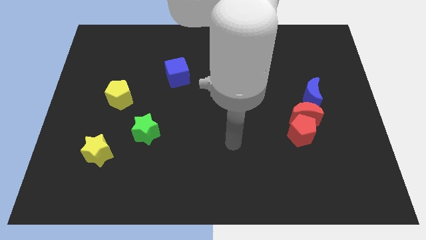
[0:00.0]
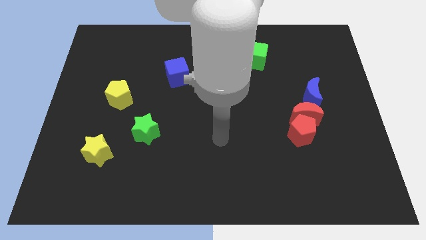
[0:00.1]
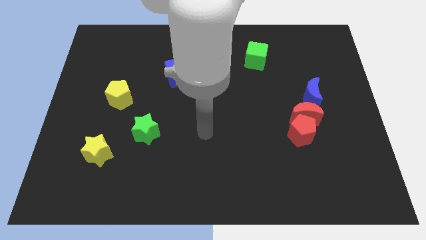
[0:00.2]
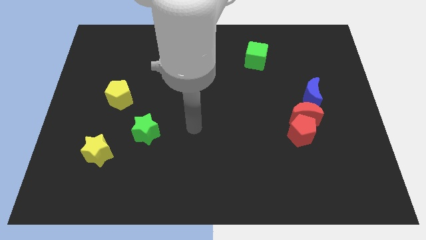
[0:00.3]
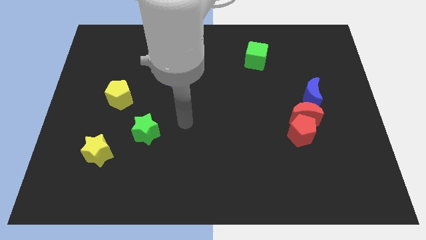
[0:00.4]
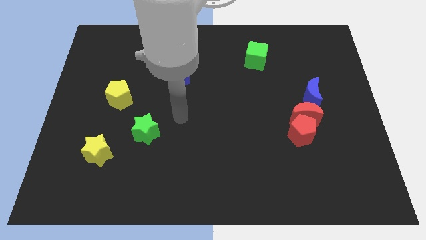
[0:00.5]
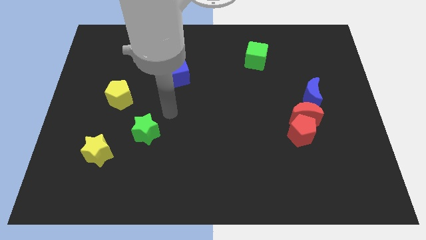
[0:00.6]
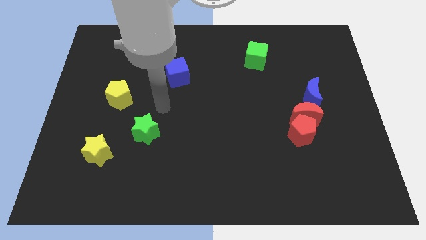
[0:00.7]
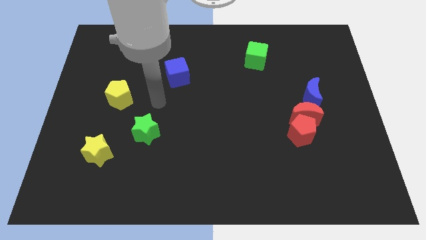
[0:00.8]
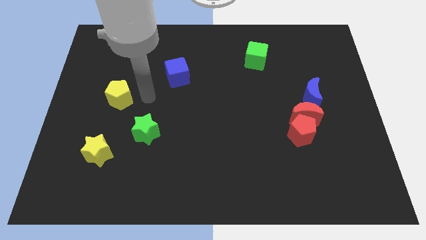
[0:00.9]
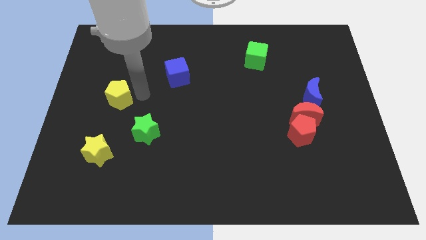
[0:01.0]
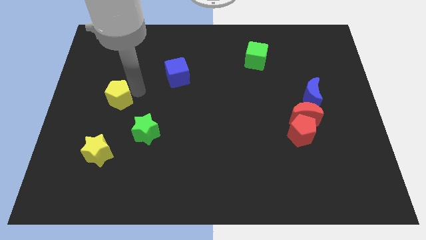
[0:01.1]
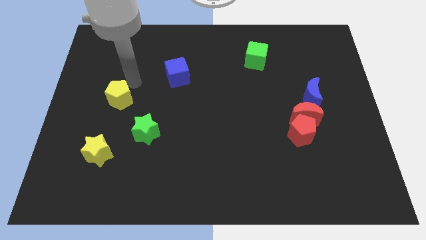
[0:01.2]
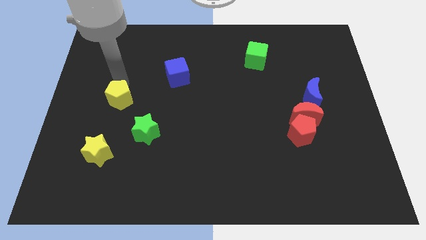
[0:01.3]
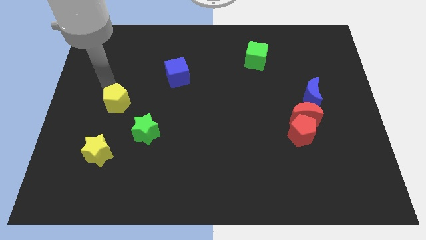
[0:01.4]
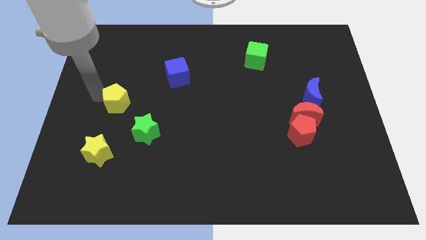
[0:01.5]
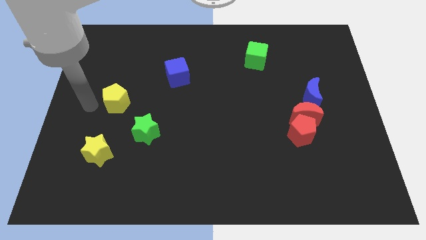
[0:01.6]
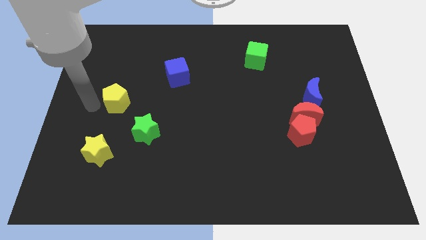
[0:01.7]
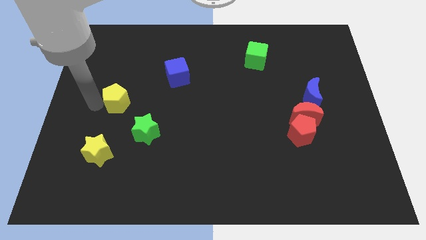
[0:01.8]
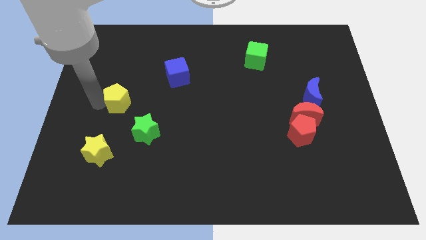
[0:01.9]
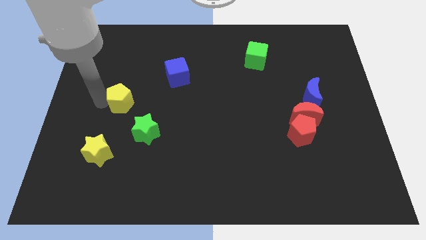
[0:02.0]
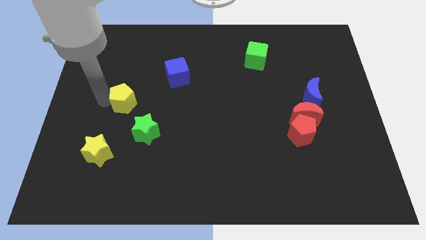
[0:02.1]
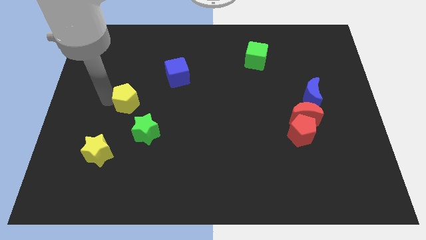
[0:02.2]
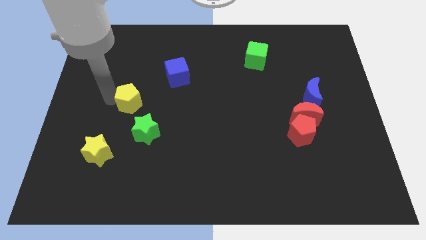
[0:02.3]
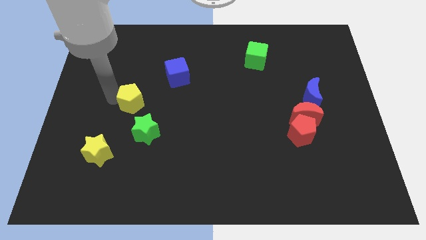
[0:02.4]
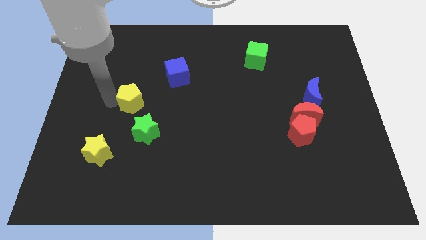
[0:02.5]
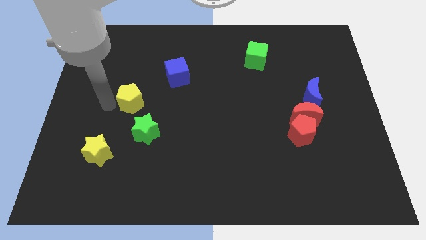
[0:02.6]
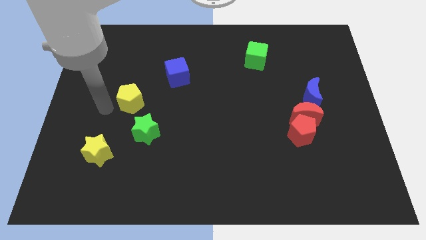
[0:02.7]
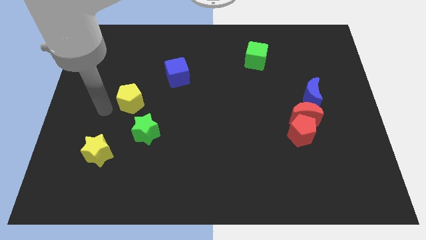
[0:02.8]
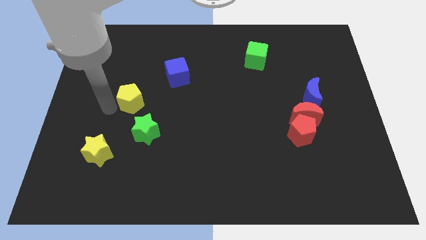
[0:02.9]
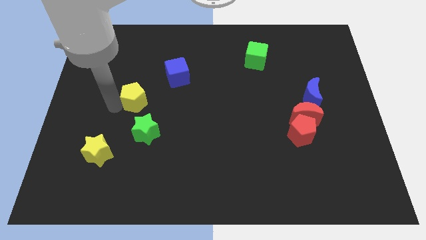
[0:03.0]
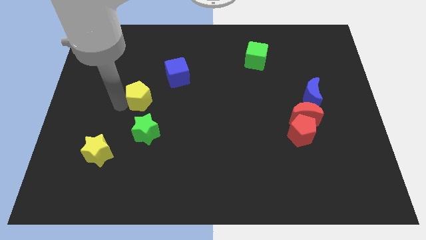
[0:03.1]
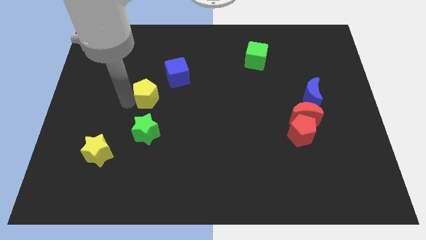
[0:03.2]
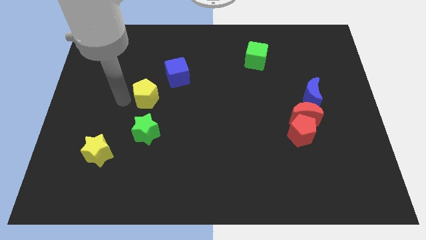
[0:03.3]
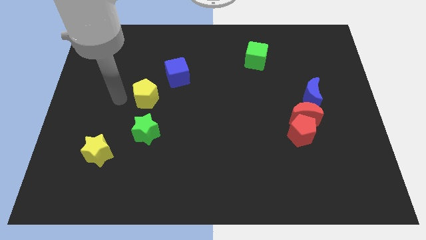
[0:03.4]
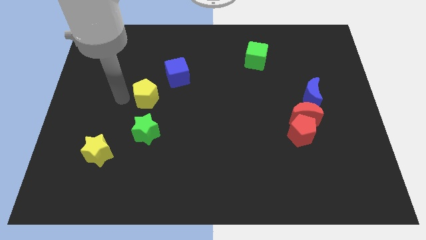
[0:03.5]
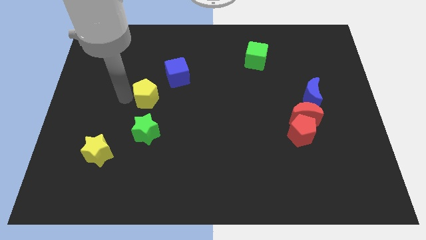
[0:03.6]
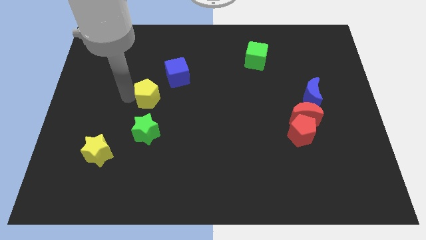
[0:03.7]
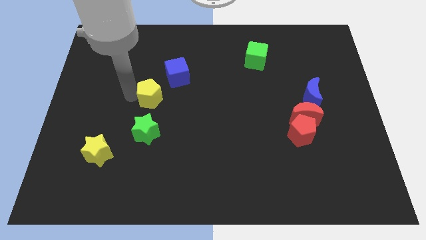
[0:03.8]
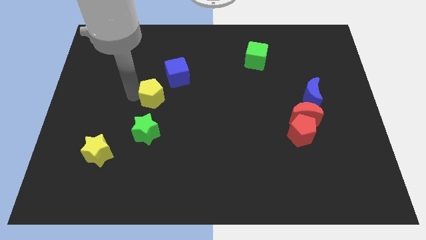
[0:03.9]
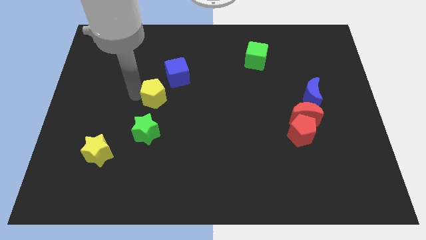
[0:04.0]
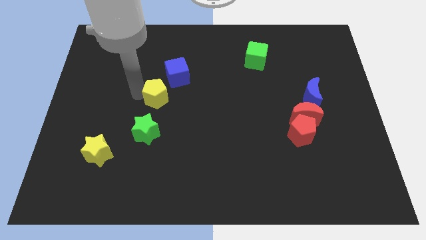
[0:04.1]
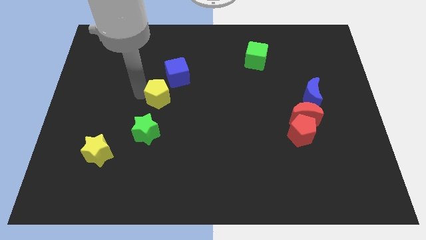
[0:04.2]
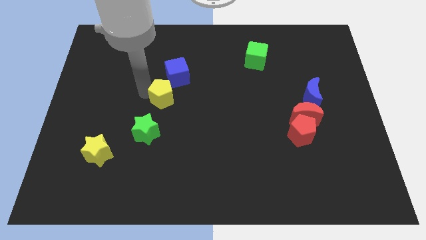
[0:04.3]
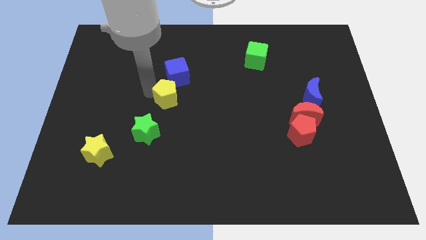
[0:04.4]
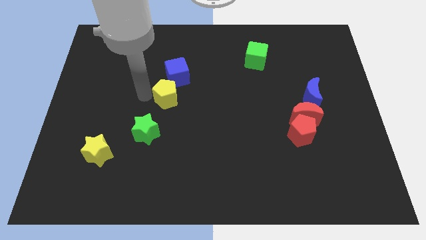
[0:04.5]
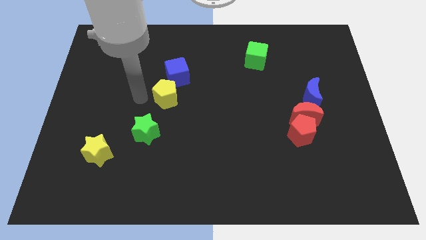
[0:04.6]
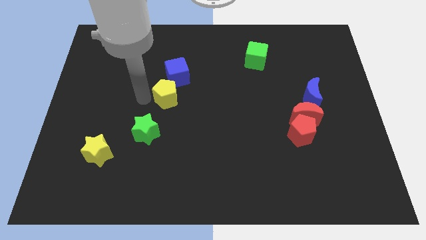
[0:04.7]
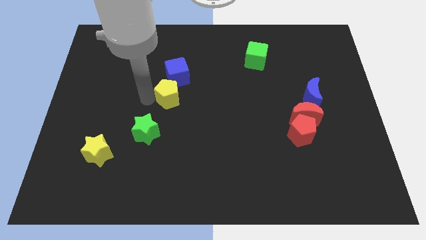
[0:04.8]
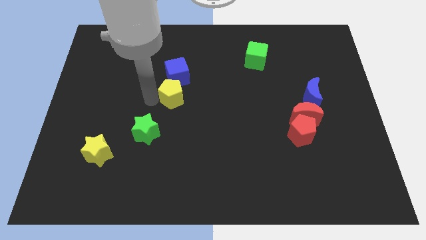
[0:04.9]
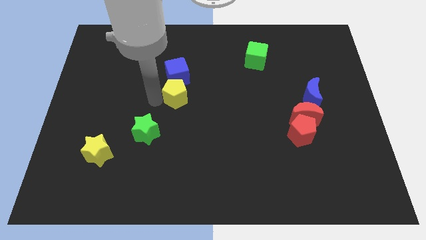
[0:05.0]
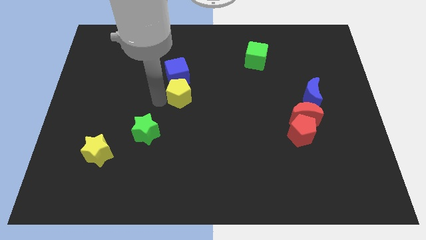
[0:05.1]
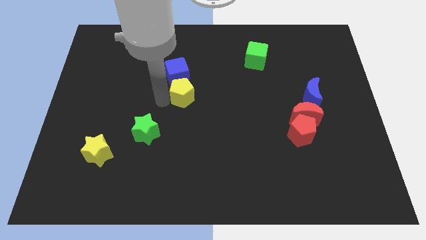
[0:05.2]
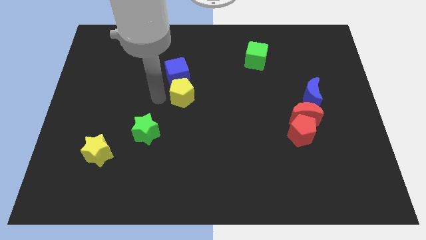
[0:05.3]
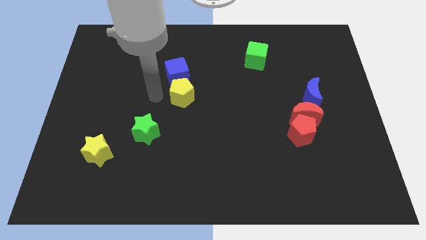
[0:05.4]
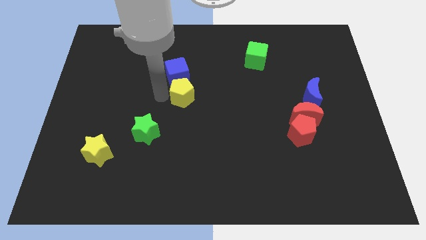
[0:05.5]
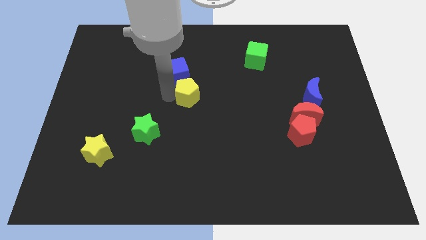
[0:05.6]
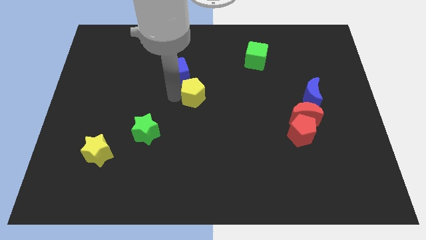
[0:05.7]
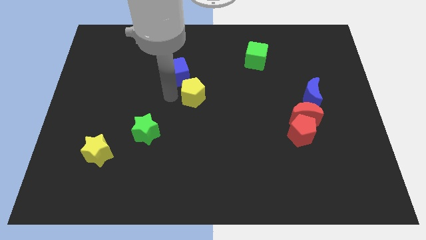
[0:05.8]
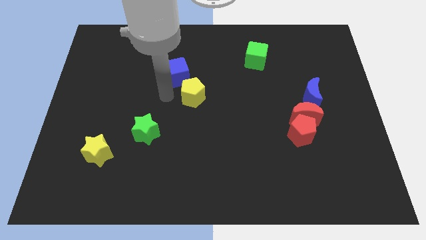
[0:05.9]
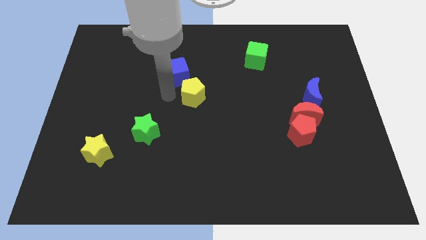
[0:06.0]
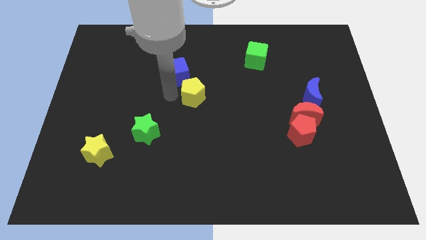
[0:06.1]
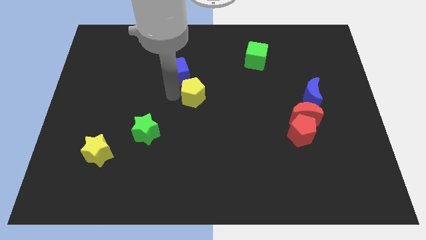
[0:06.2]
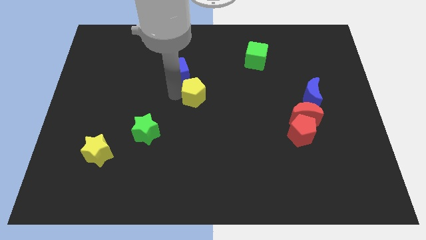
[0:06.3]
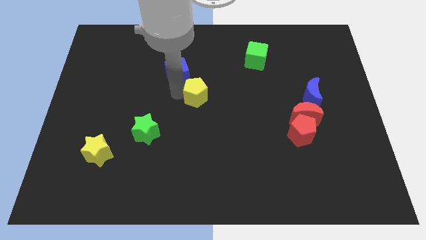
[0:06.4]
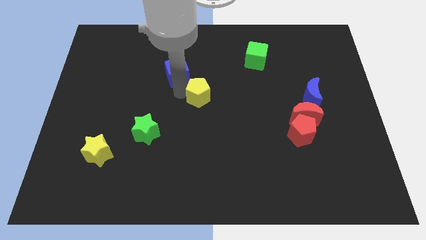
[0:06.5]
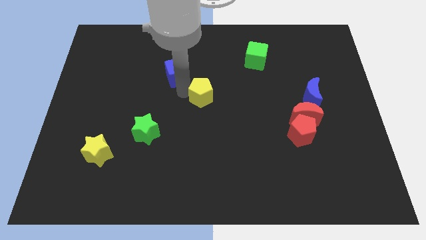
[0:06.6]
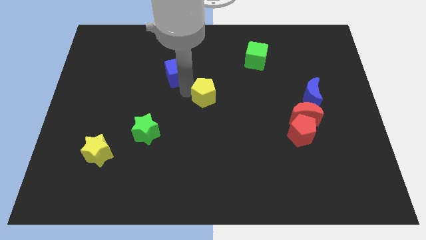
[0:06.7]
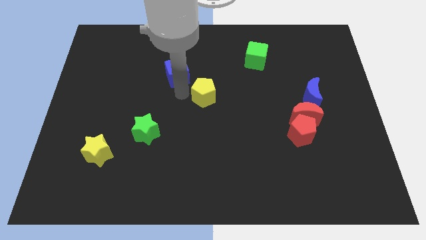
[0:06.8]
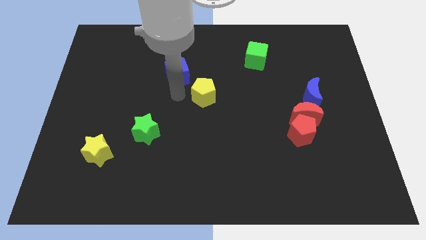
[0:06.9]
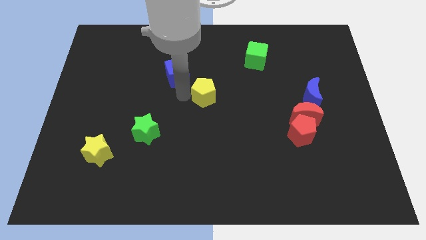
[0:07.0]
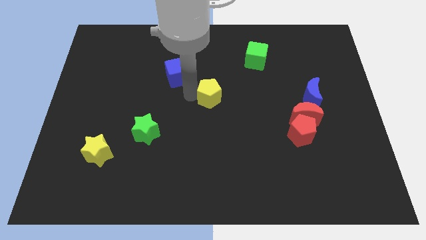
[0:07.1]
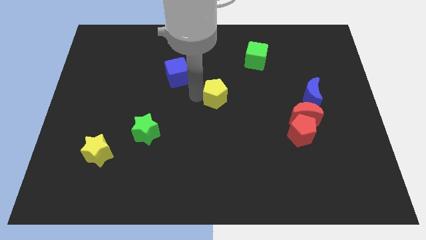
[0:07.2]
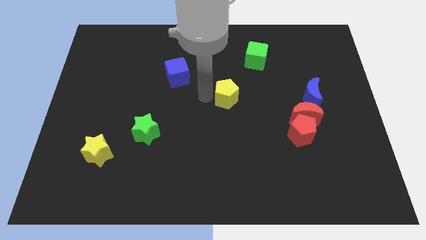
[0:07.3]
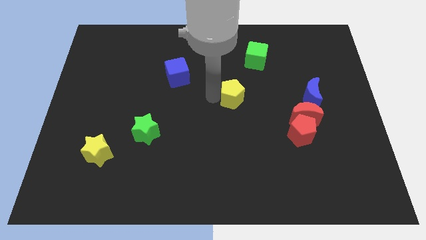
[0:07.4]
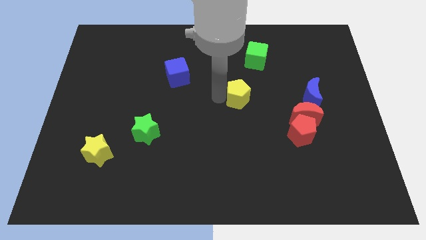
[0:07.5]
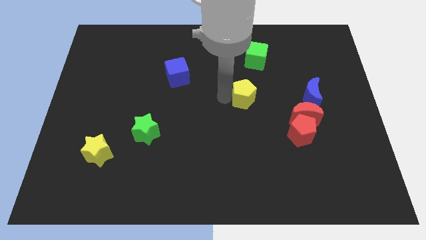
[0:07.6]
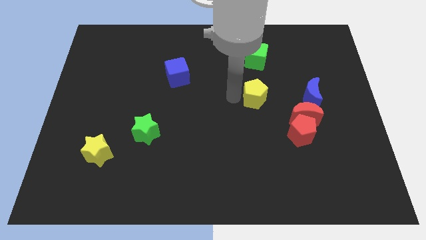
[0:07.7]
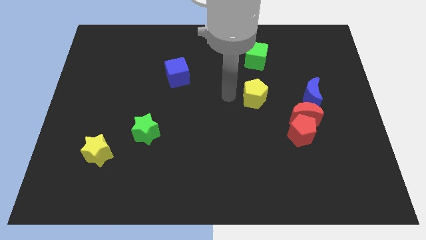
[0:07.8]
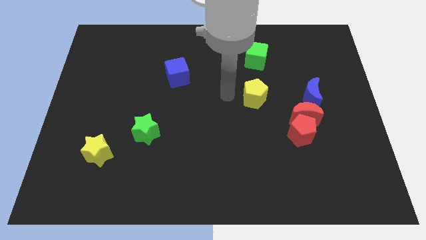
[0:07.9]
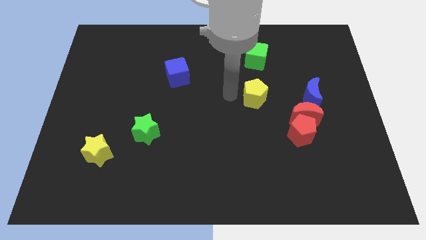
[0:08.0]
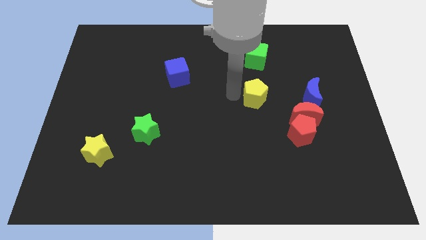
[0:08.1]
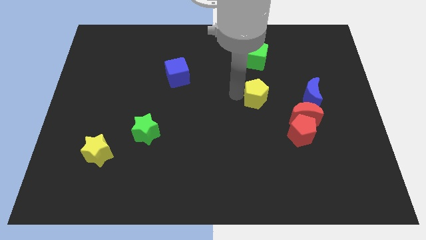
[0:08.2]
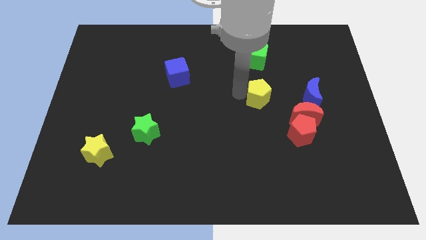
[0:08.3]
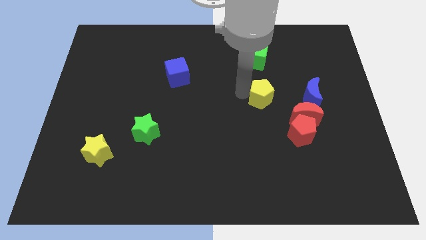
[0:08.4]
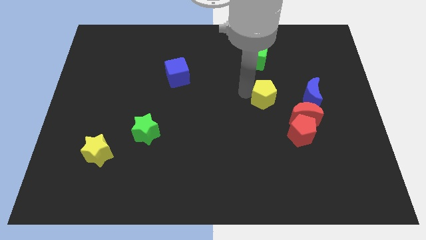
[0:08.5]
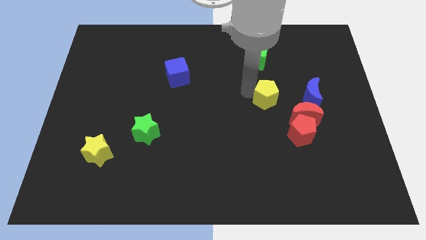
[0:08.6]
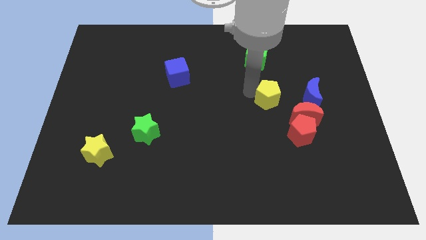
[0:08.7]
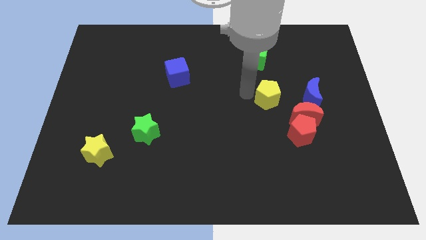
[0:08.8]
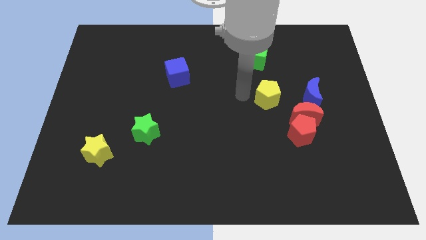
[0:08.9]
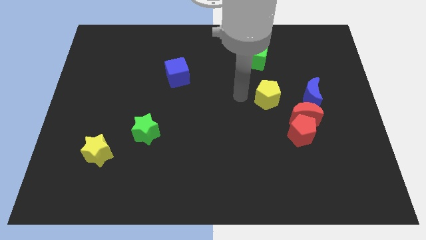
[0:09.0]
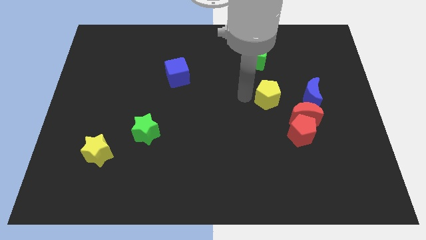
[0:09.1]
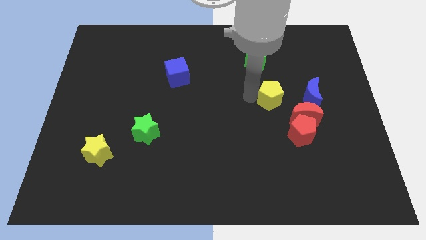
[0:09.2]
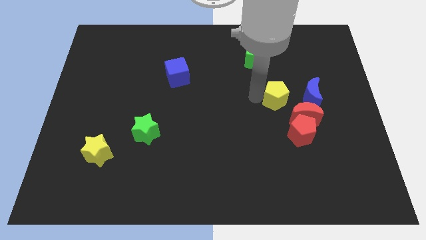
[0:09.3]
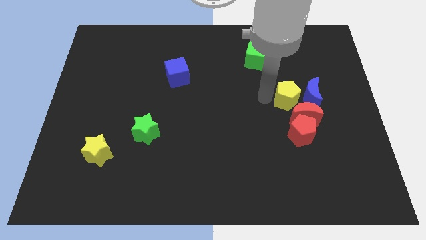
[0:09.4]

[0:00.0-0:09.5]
move the yellow pentagon close to the blue moon
